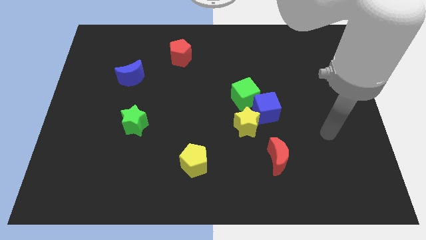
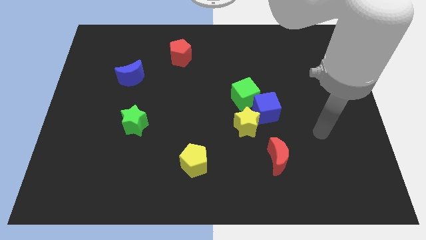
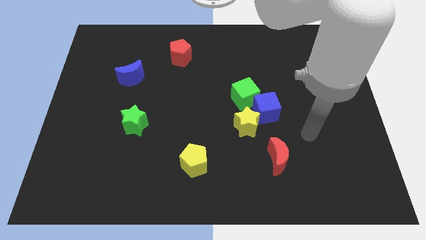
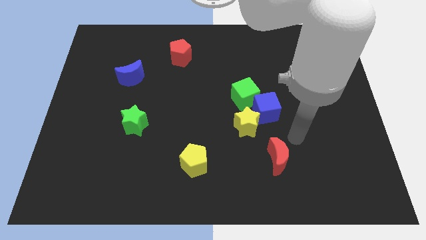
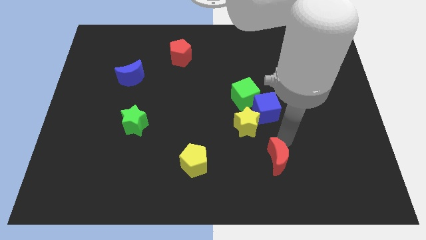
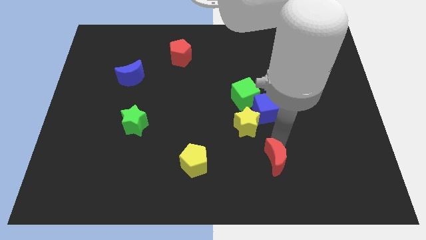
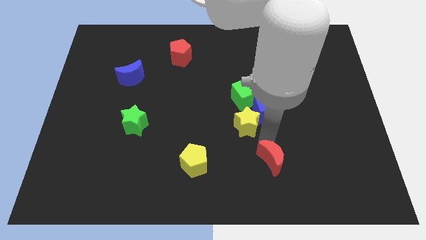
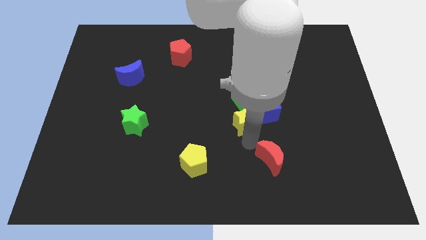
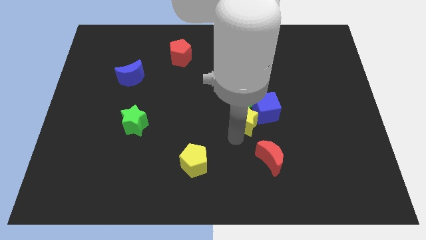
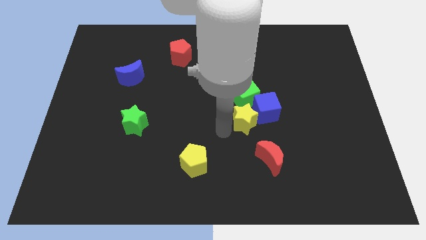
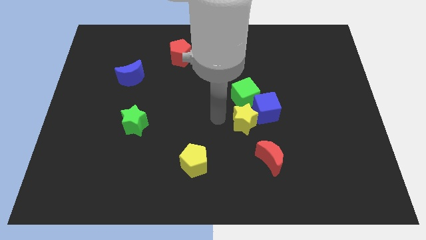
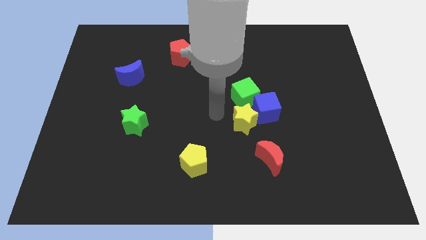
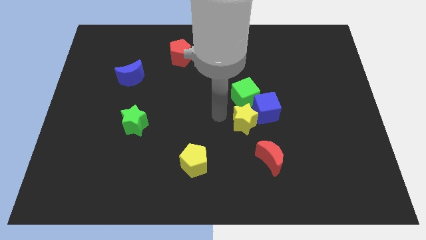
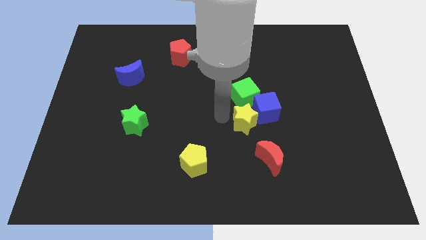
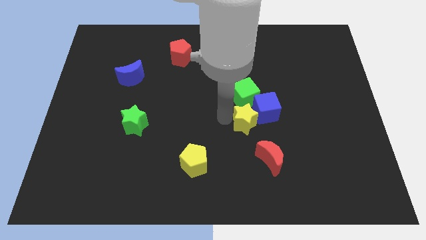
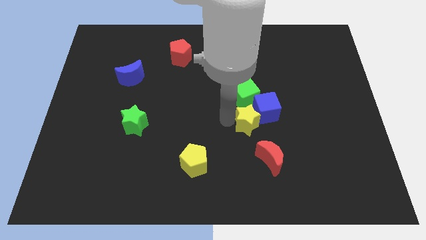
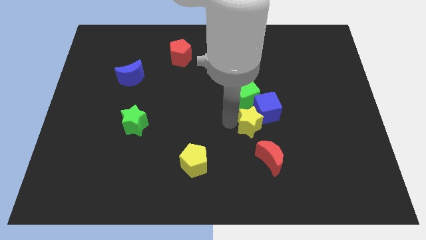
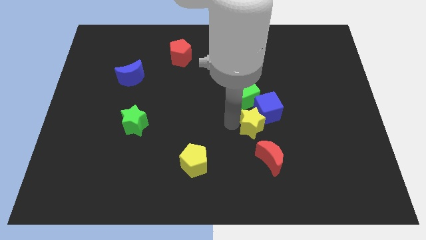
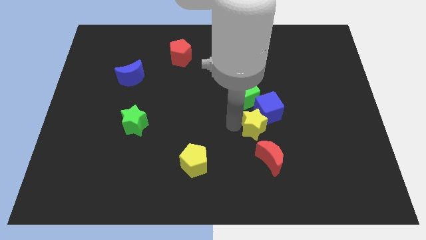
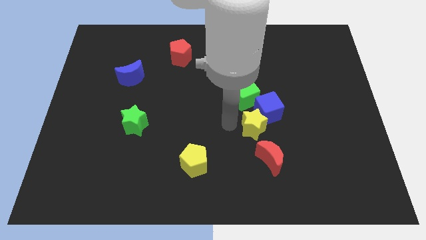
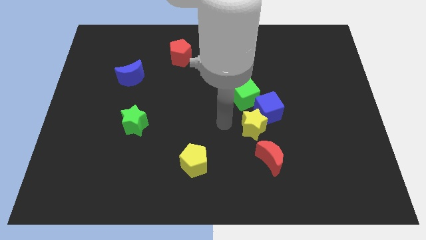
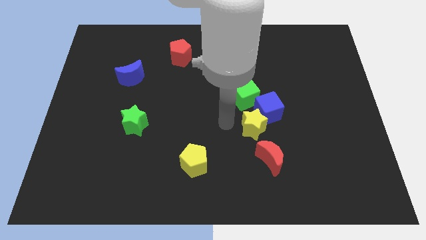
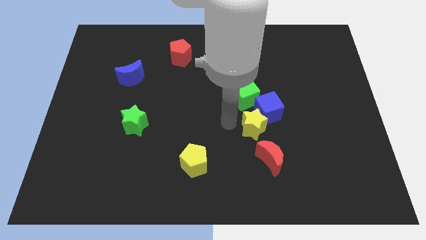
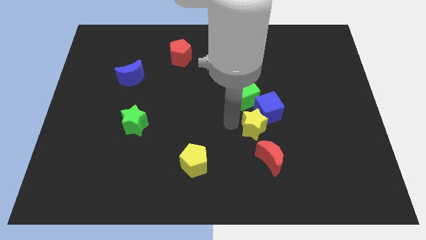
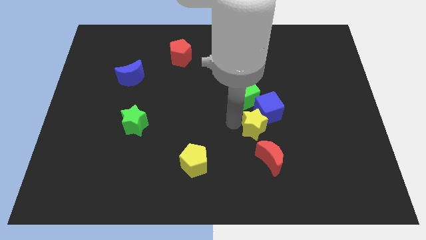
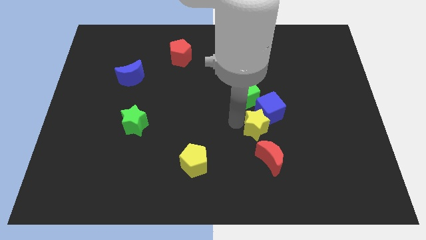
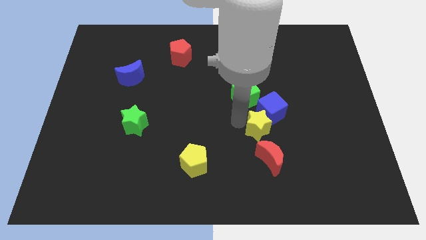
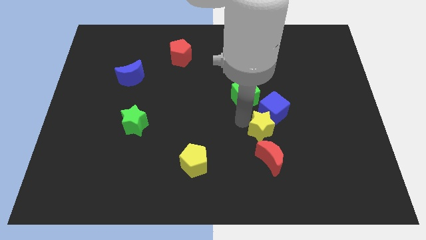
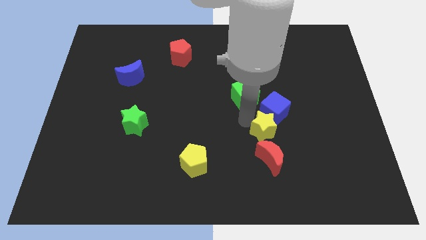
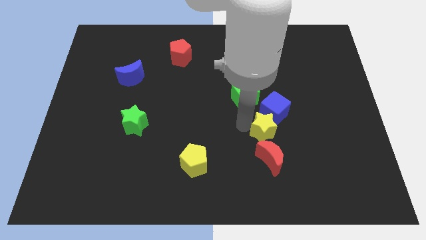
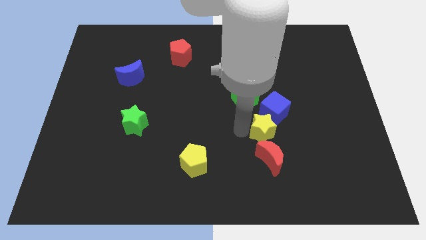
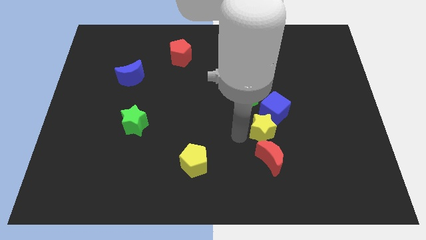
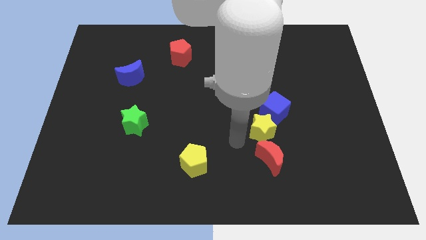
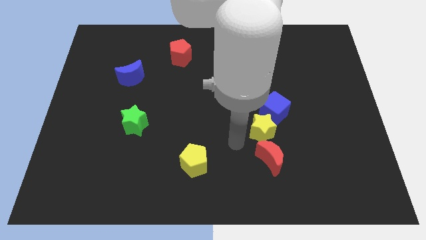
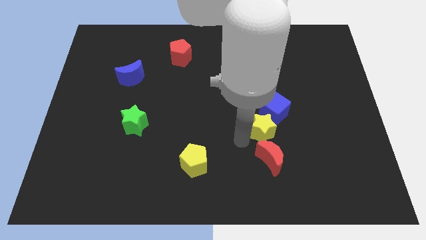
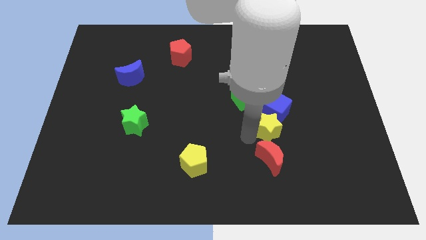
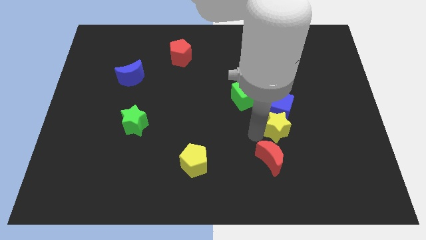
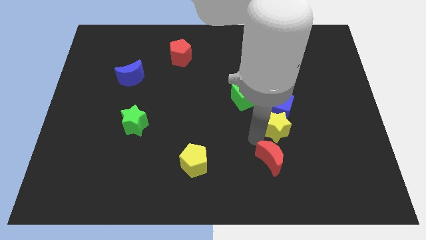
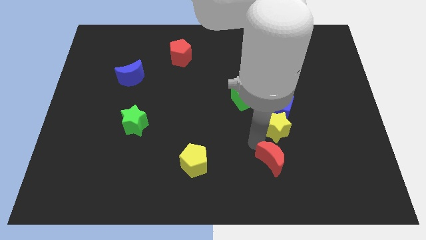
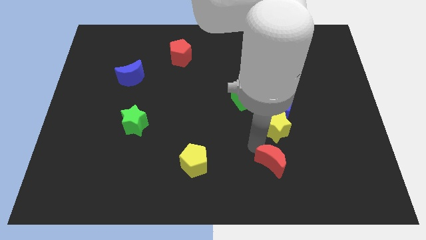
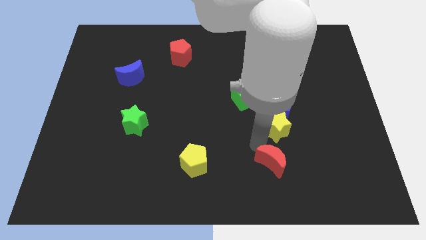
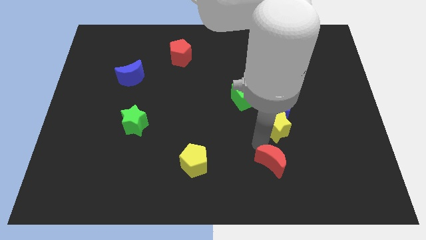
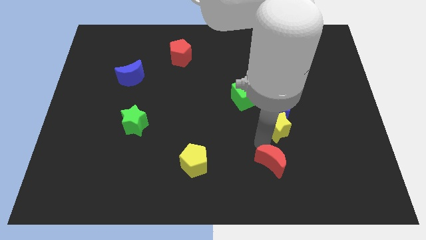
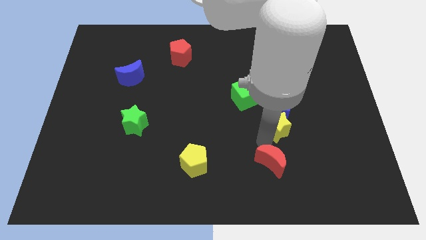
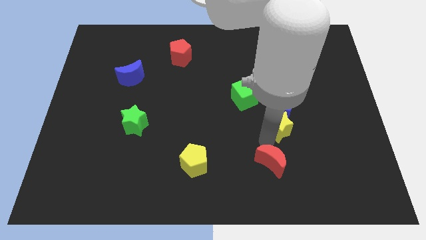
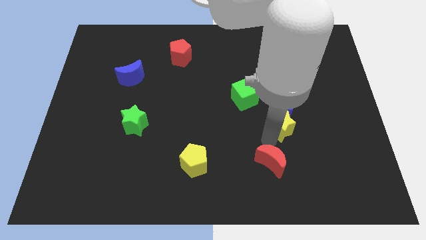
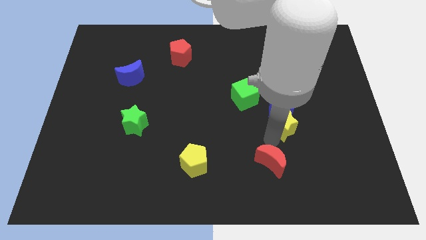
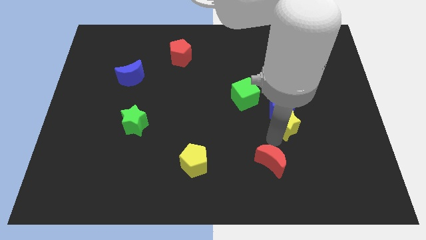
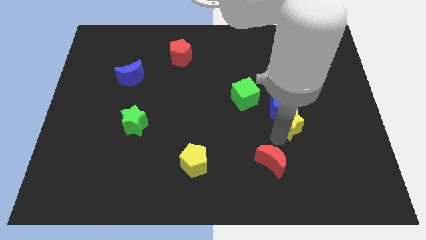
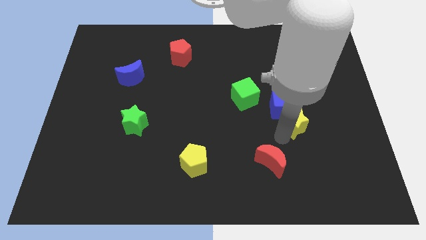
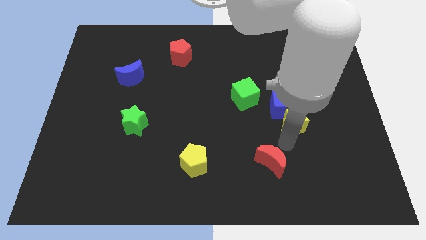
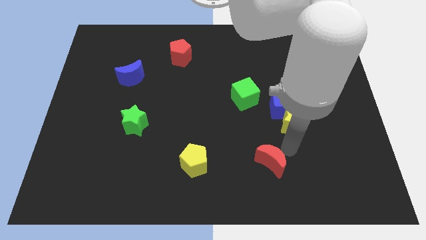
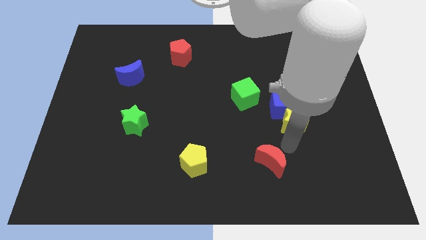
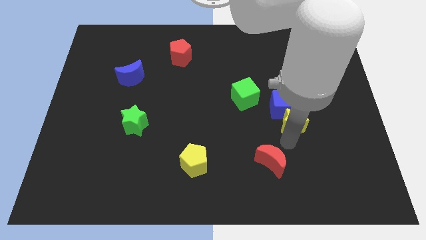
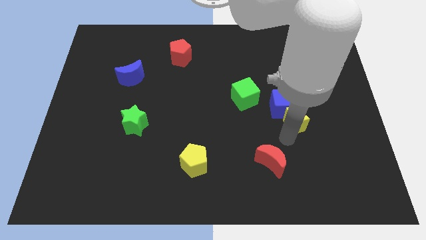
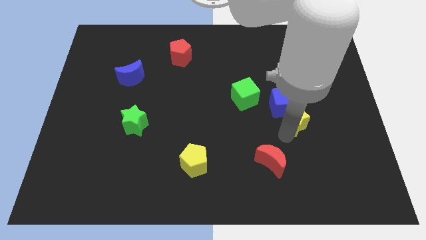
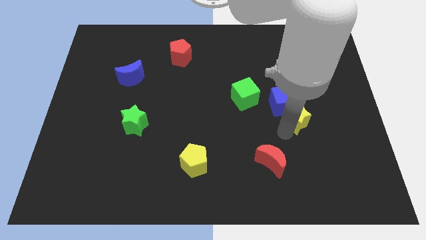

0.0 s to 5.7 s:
slightly slide the yellow star up and right

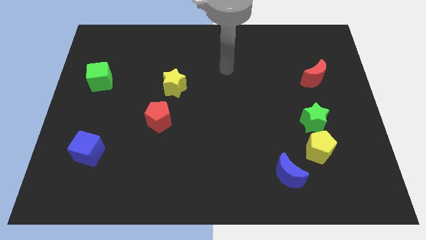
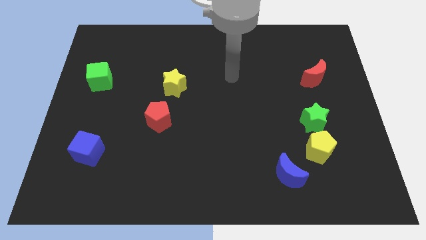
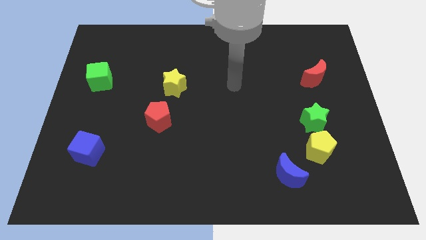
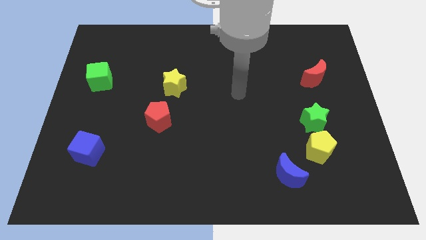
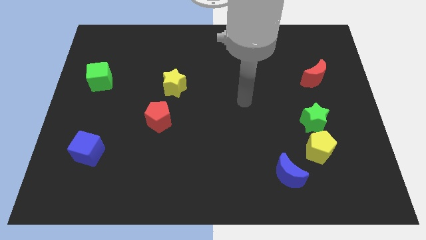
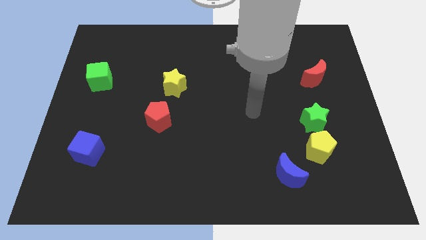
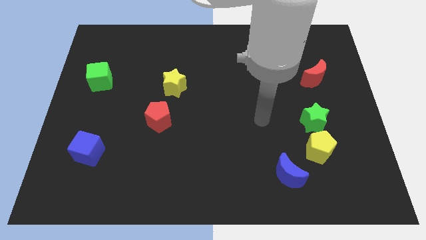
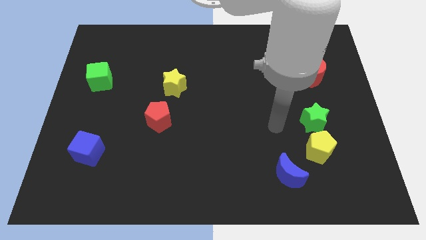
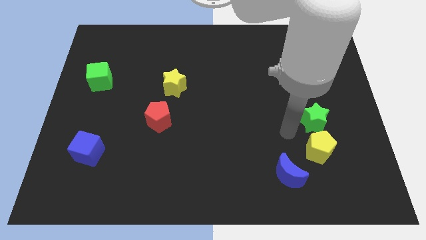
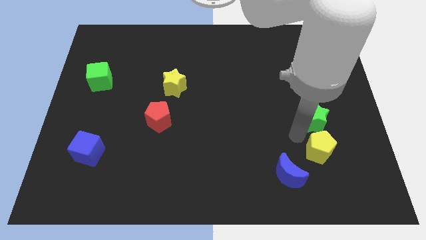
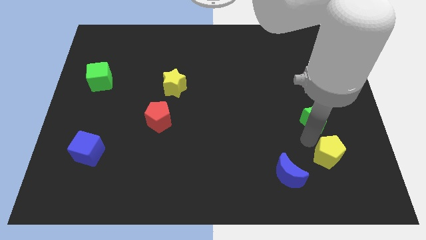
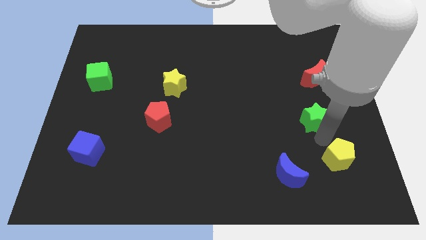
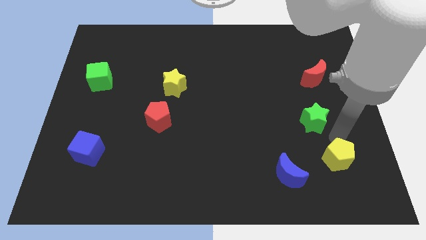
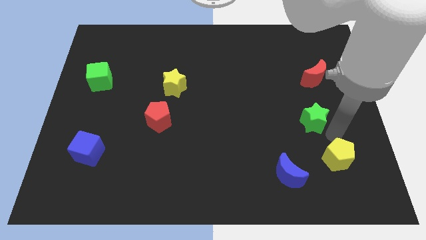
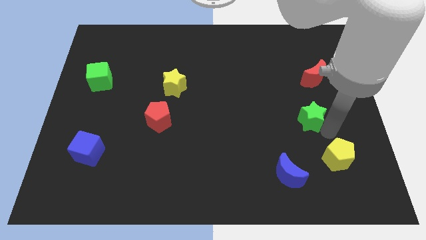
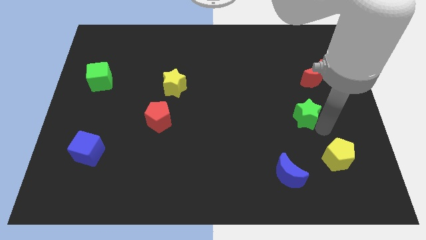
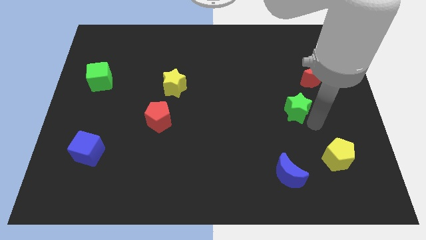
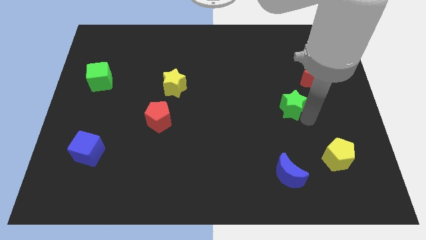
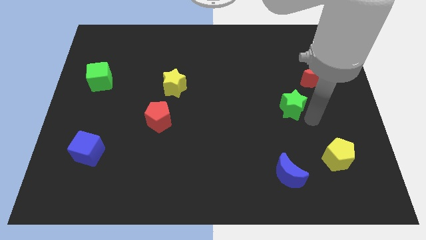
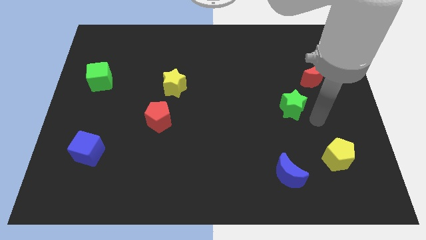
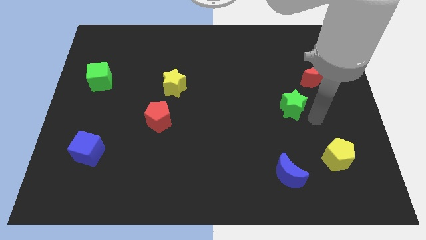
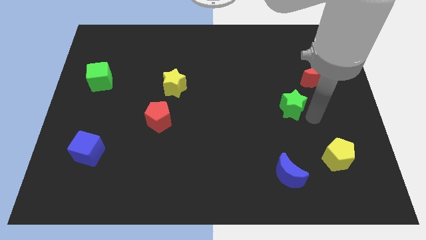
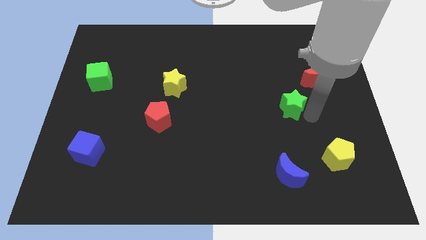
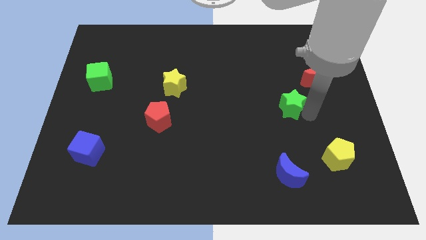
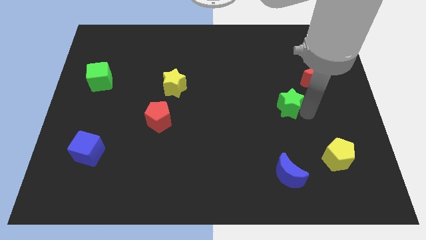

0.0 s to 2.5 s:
push the green star upwards and left diagonally somewhat

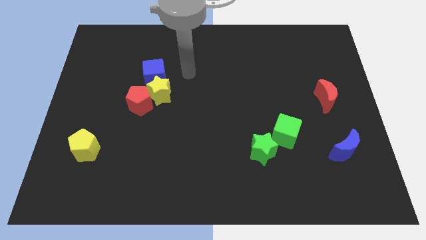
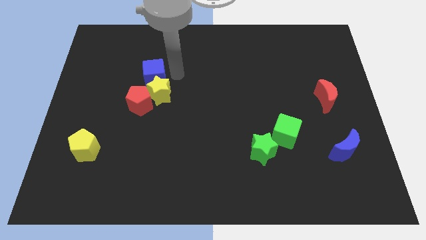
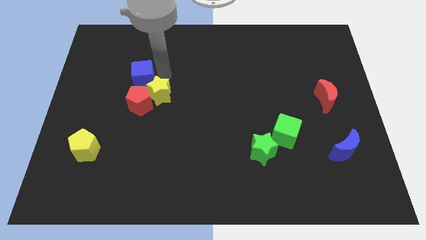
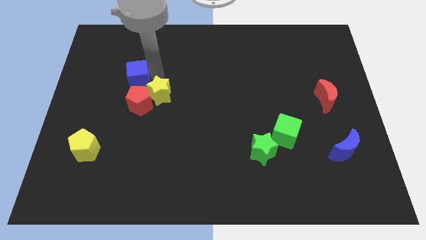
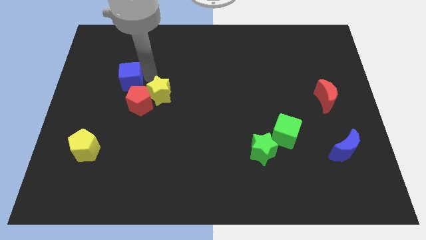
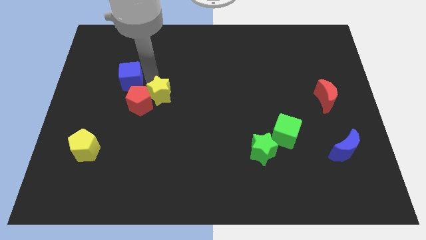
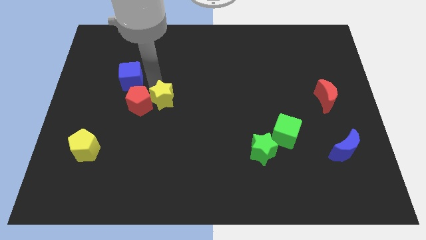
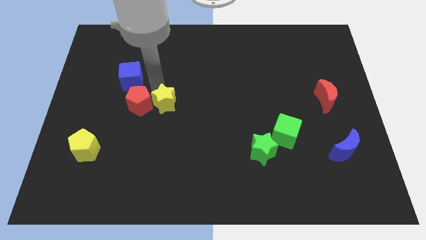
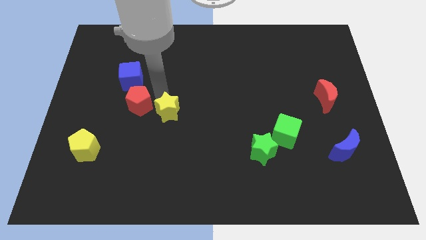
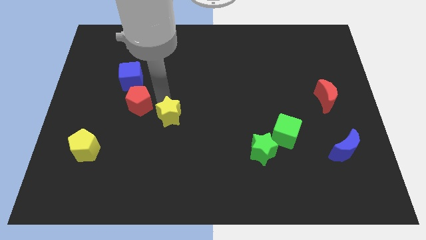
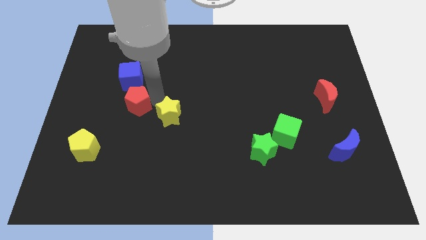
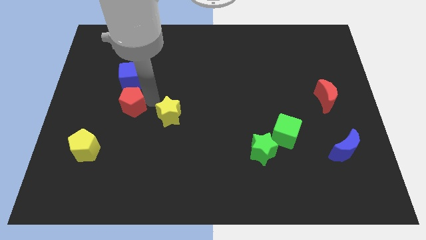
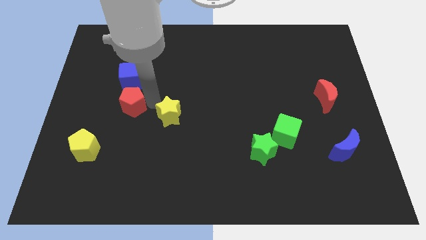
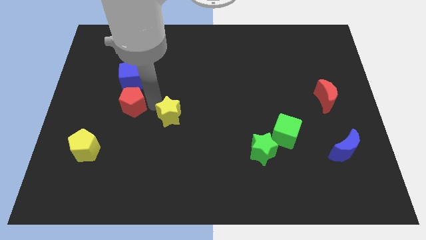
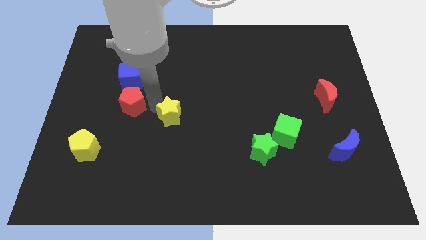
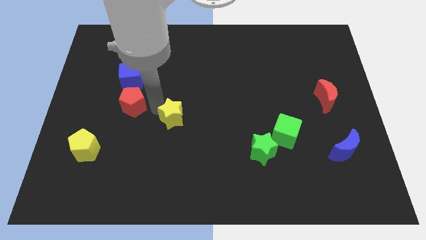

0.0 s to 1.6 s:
slide the yellow star somewhat down and to the right
